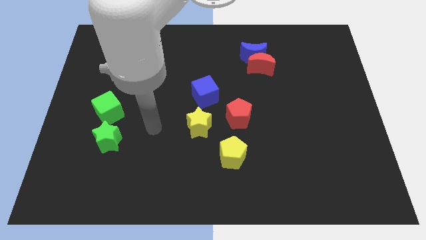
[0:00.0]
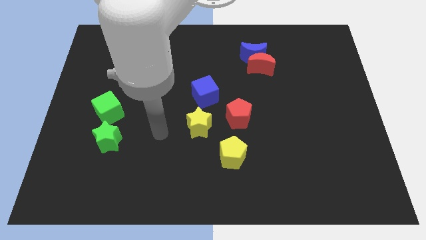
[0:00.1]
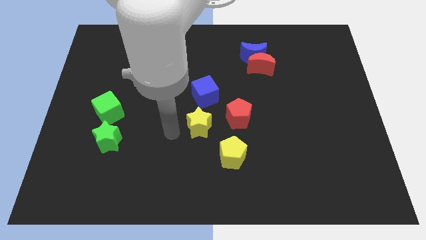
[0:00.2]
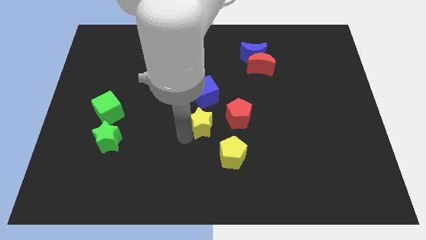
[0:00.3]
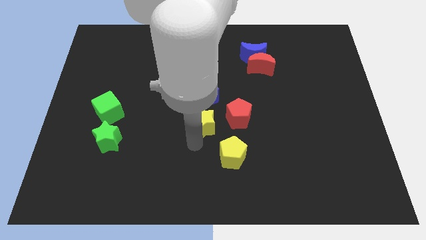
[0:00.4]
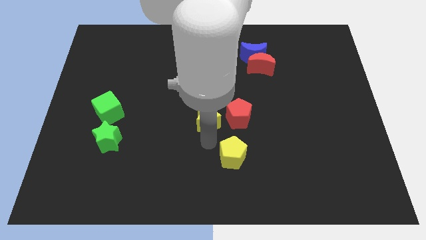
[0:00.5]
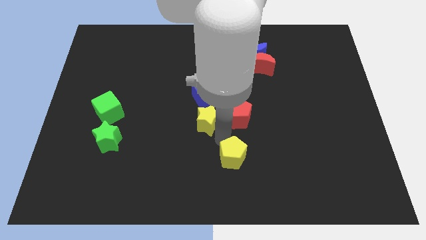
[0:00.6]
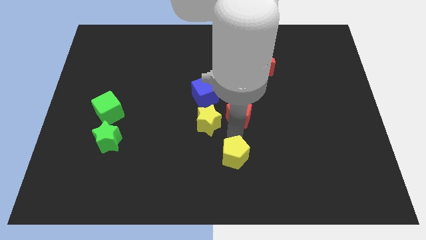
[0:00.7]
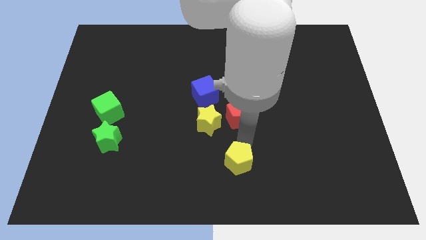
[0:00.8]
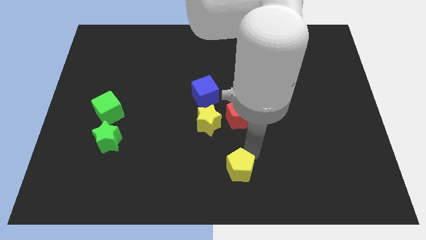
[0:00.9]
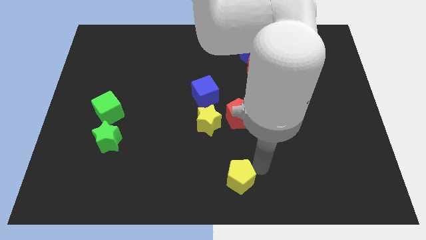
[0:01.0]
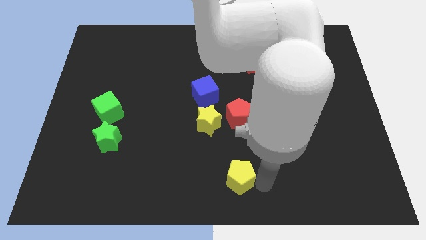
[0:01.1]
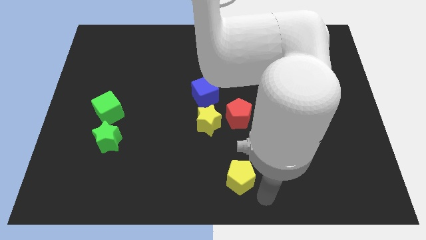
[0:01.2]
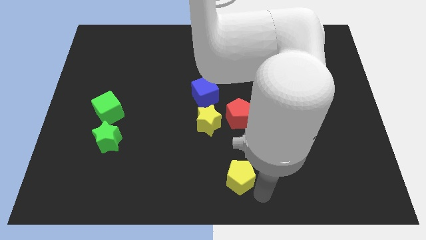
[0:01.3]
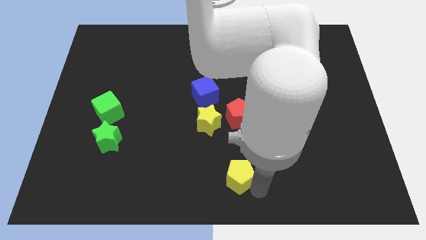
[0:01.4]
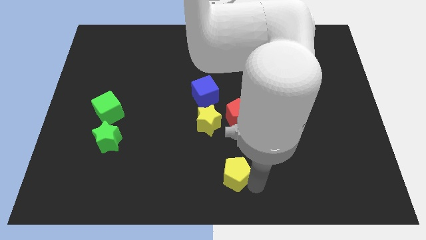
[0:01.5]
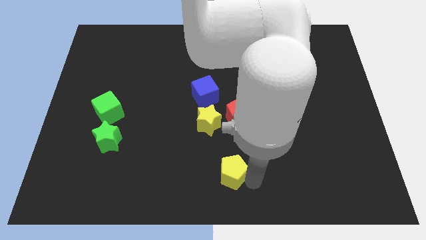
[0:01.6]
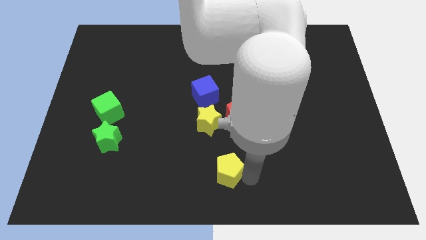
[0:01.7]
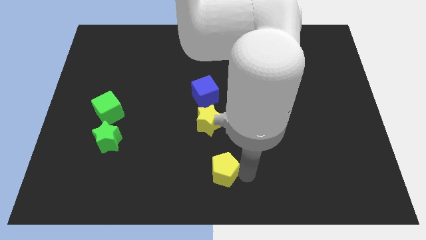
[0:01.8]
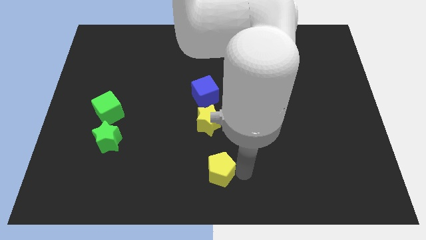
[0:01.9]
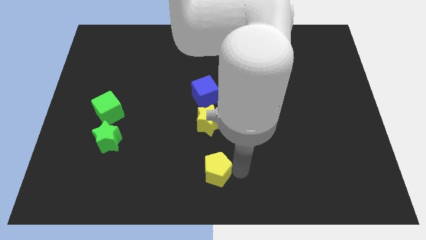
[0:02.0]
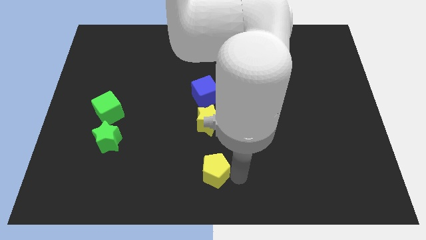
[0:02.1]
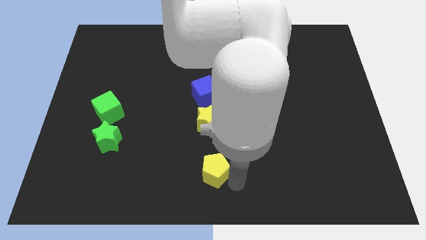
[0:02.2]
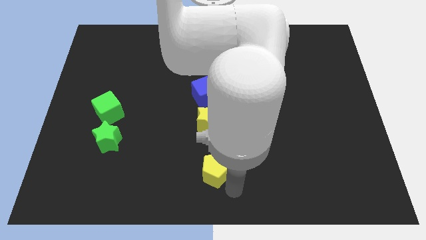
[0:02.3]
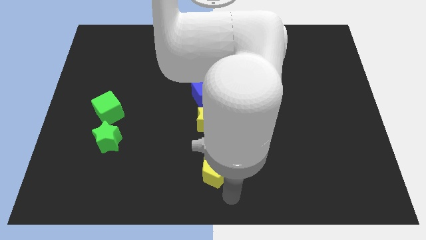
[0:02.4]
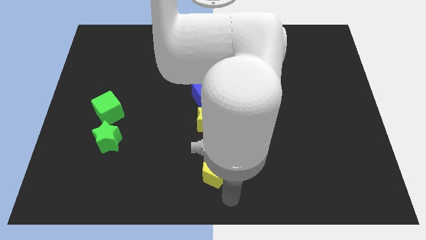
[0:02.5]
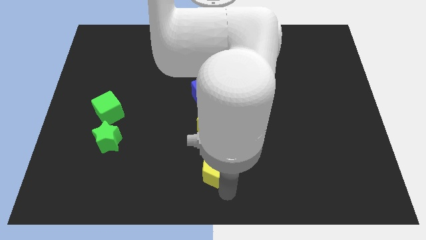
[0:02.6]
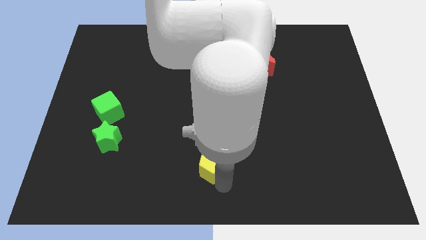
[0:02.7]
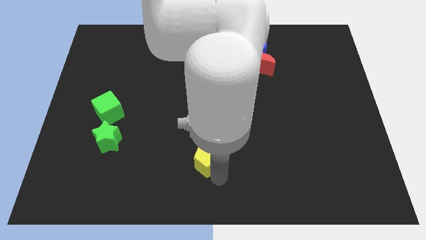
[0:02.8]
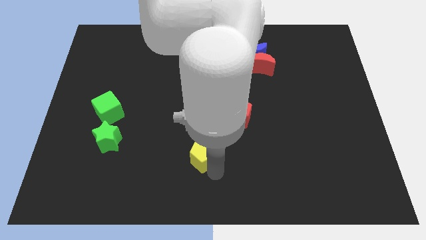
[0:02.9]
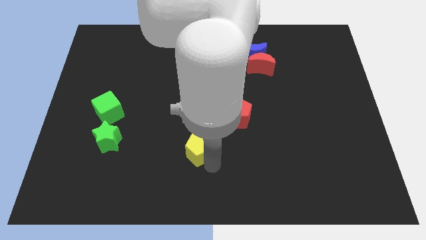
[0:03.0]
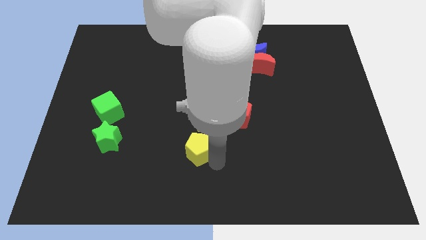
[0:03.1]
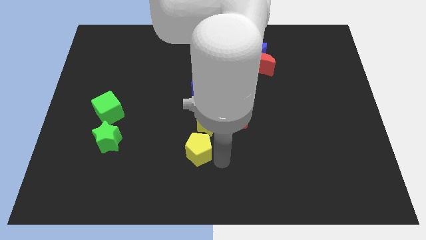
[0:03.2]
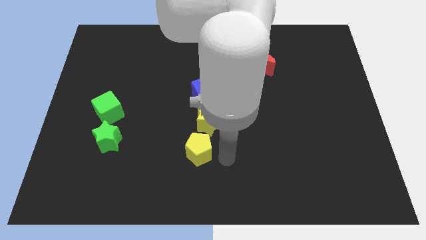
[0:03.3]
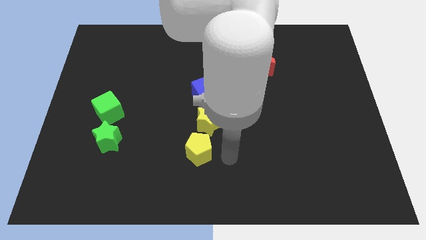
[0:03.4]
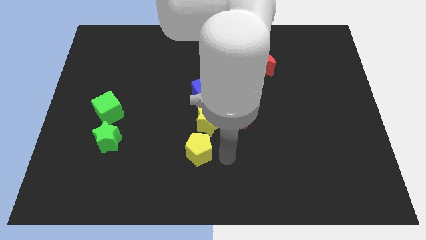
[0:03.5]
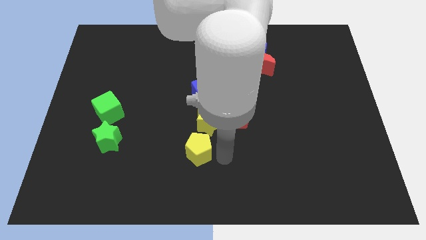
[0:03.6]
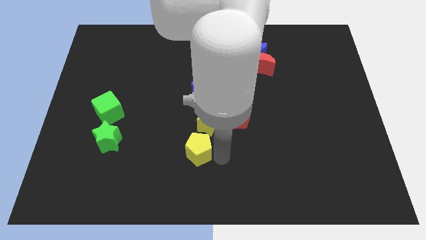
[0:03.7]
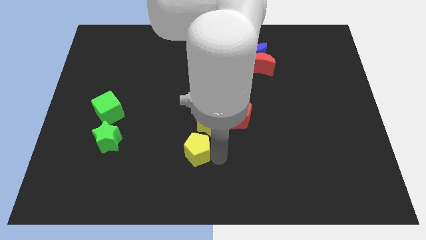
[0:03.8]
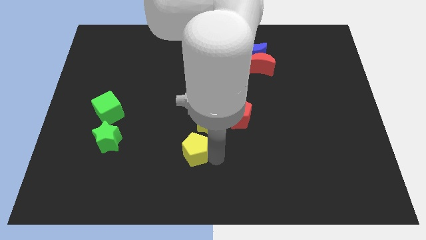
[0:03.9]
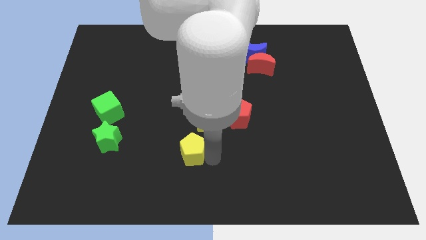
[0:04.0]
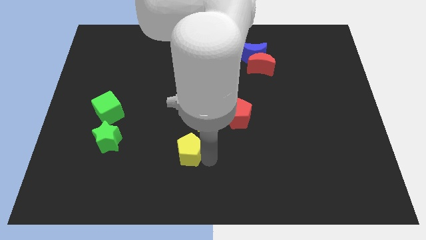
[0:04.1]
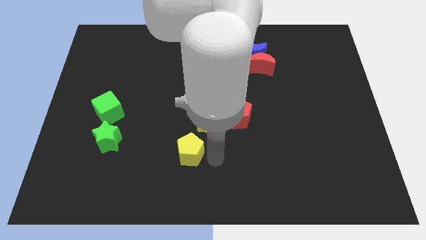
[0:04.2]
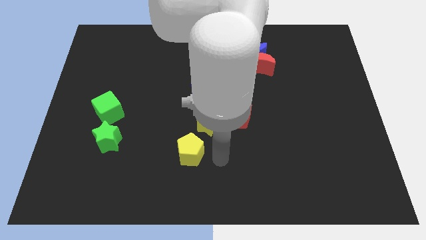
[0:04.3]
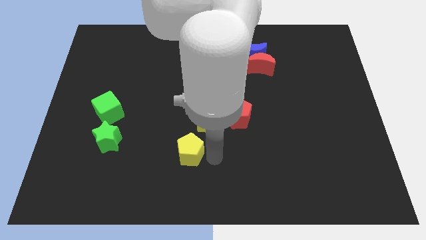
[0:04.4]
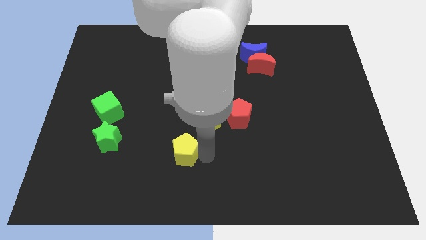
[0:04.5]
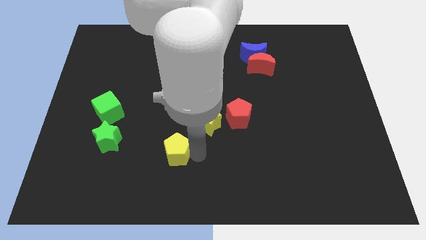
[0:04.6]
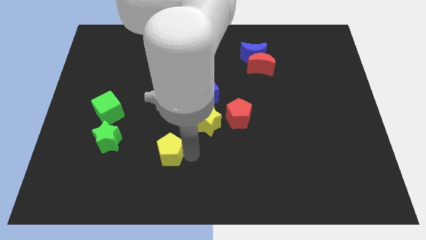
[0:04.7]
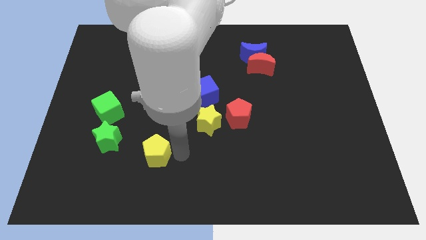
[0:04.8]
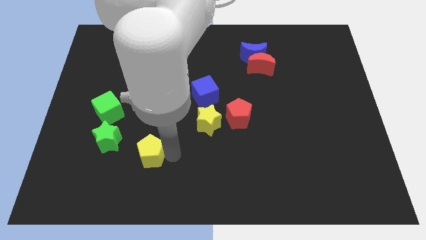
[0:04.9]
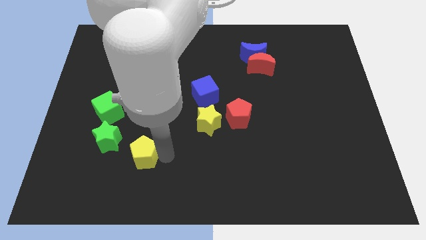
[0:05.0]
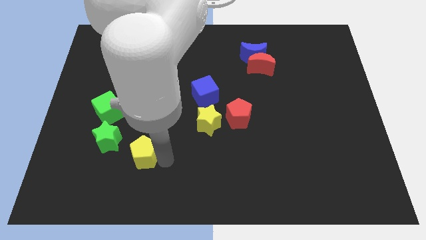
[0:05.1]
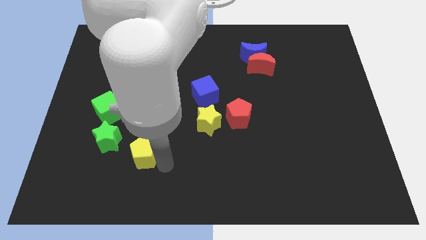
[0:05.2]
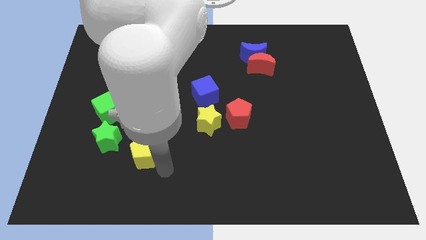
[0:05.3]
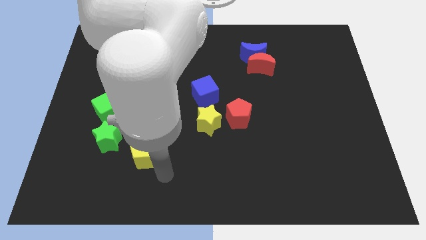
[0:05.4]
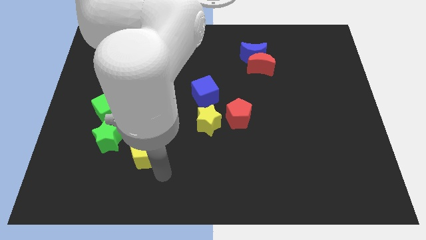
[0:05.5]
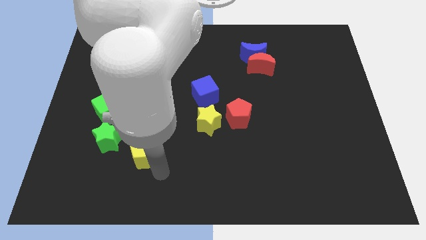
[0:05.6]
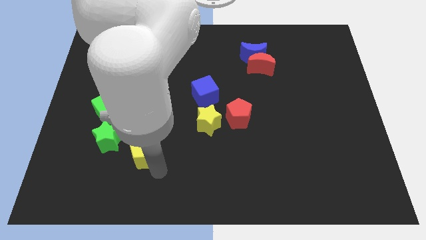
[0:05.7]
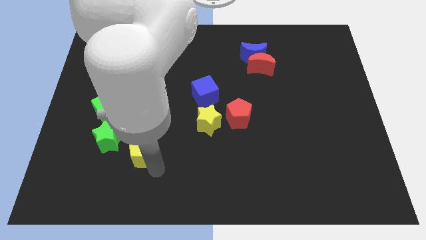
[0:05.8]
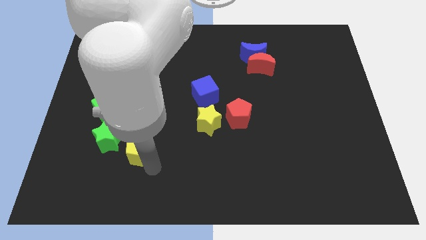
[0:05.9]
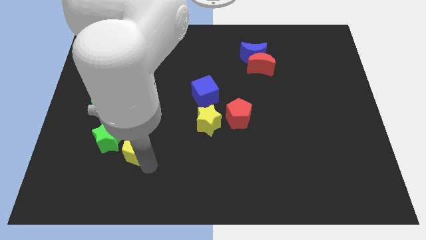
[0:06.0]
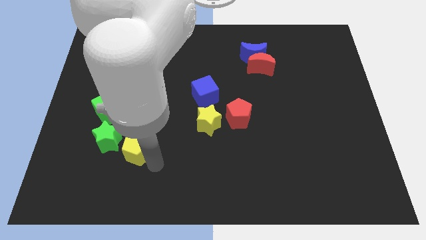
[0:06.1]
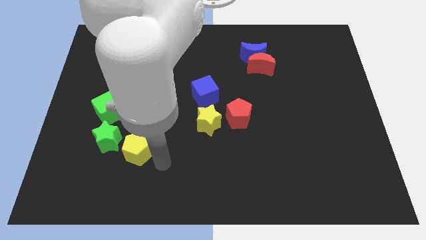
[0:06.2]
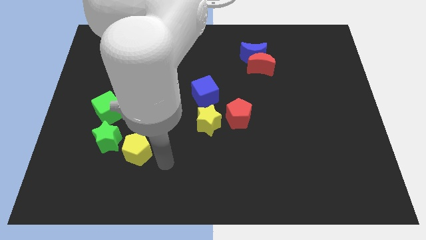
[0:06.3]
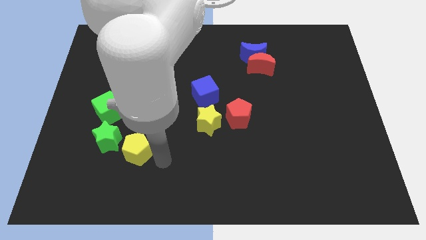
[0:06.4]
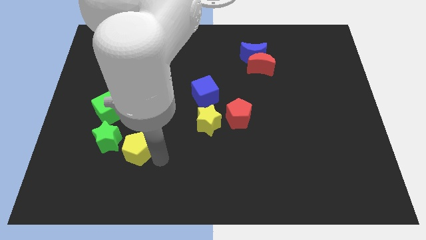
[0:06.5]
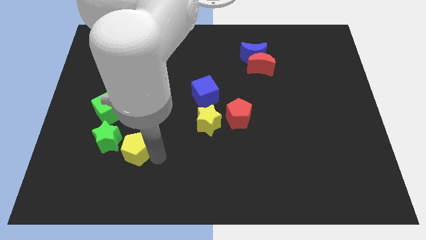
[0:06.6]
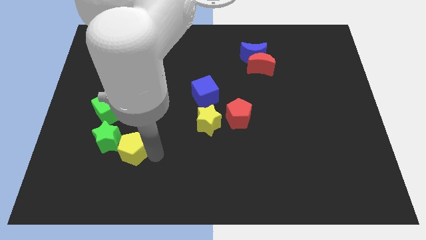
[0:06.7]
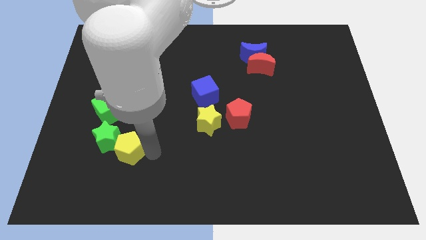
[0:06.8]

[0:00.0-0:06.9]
slide the yellow pentagon to the green star

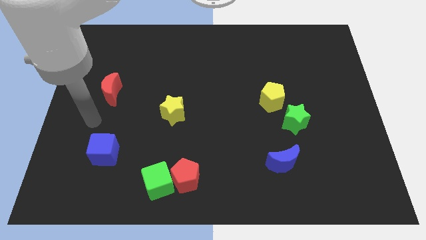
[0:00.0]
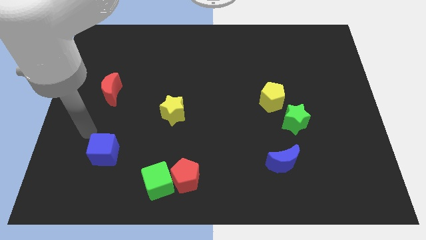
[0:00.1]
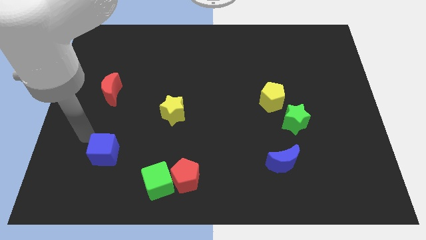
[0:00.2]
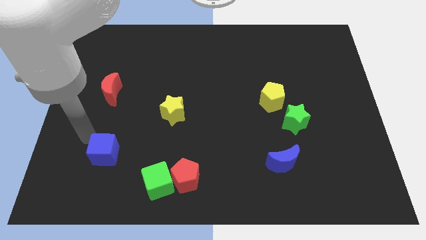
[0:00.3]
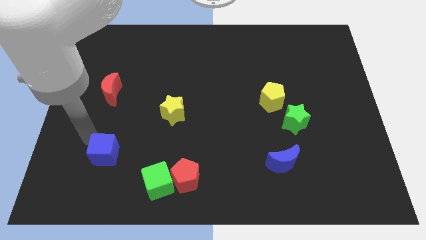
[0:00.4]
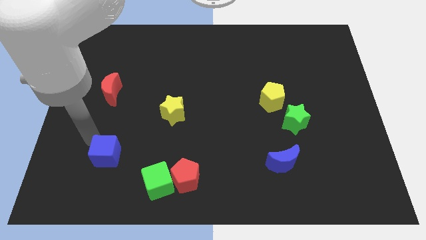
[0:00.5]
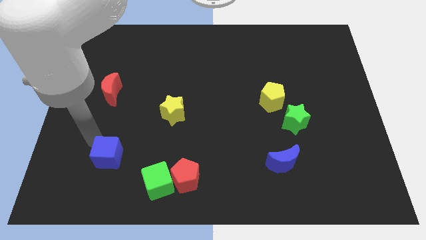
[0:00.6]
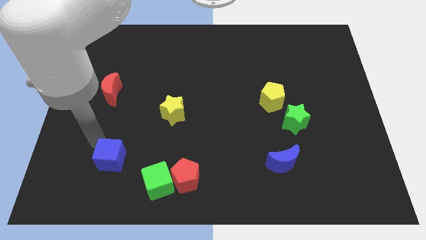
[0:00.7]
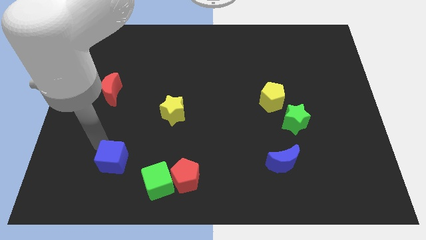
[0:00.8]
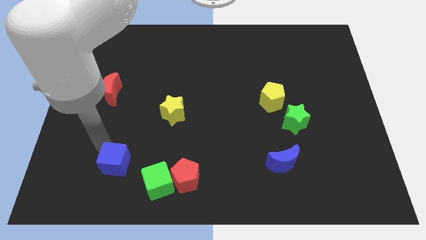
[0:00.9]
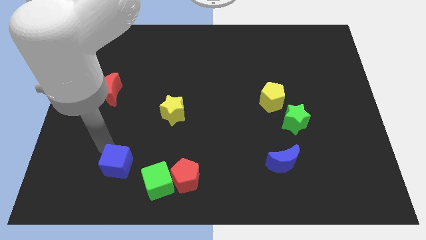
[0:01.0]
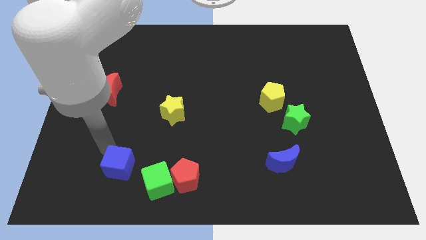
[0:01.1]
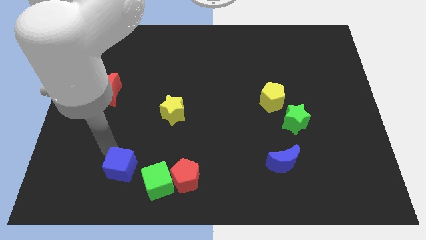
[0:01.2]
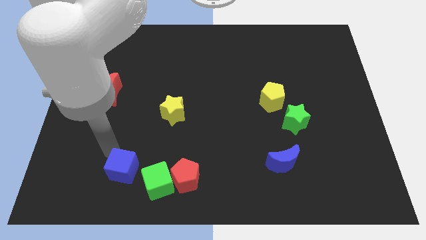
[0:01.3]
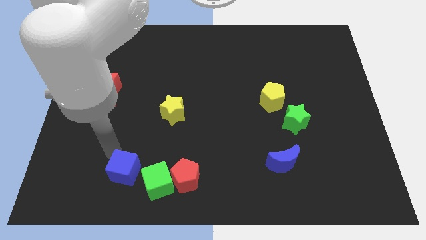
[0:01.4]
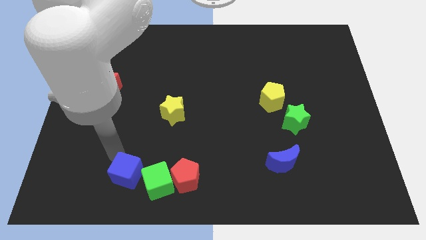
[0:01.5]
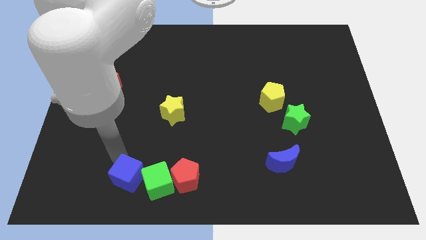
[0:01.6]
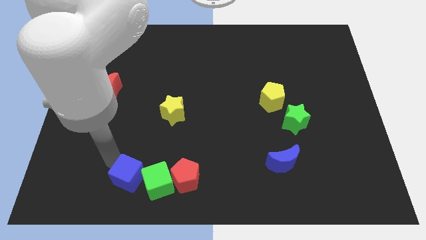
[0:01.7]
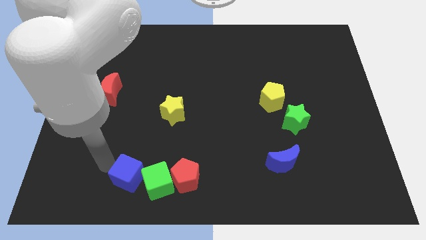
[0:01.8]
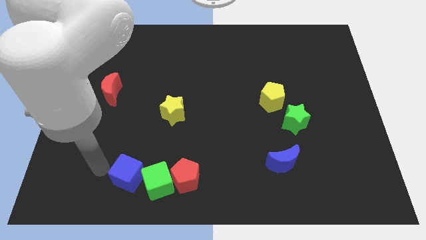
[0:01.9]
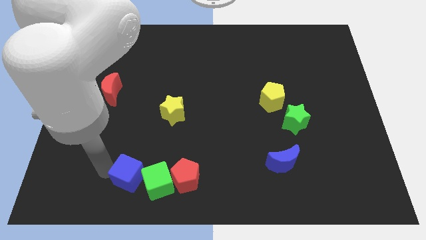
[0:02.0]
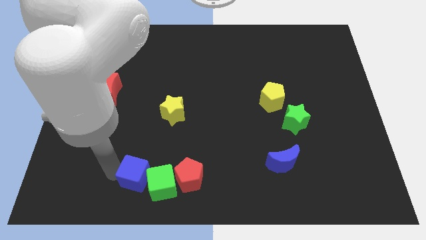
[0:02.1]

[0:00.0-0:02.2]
push the blue cube towards the green cube
